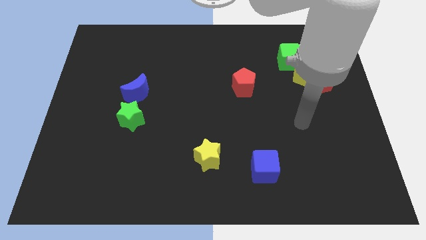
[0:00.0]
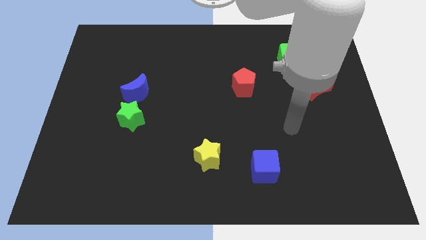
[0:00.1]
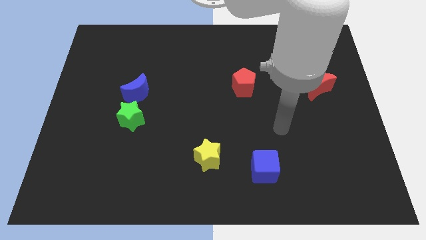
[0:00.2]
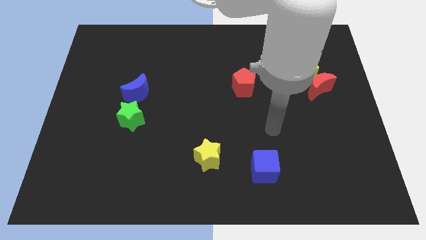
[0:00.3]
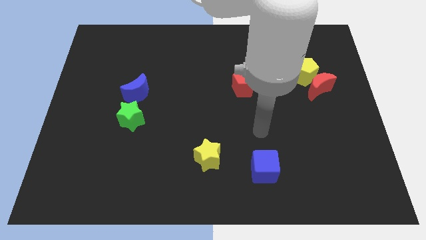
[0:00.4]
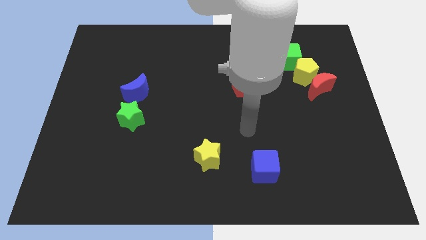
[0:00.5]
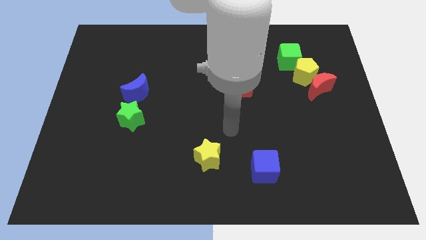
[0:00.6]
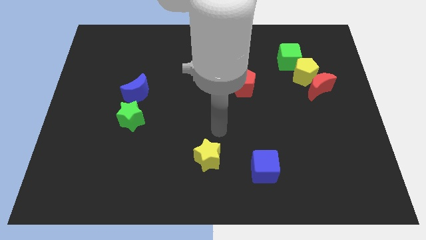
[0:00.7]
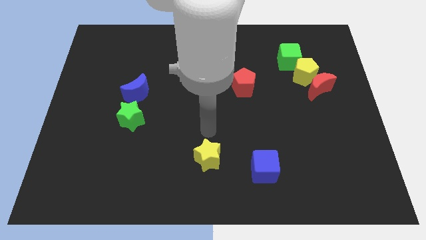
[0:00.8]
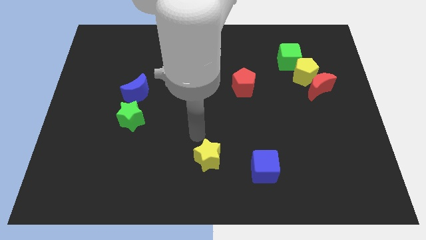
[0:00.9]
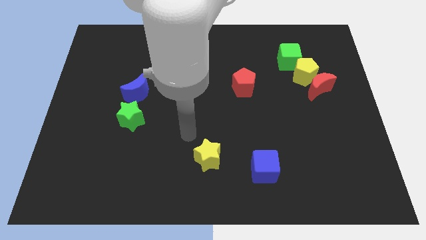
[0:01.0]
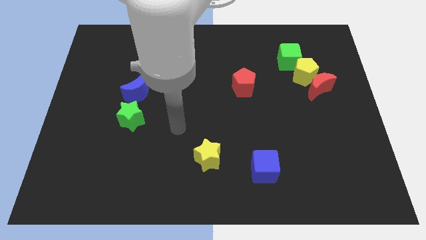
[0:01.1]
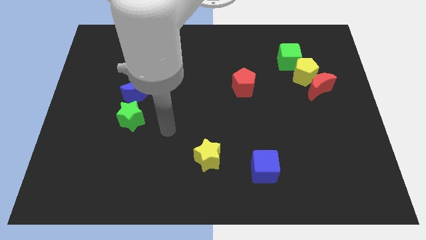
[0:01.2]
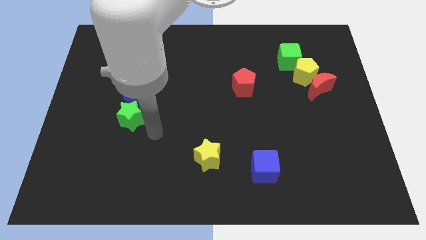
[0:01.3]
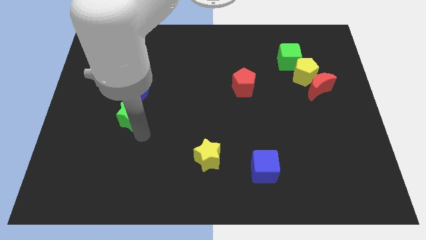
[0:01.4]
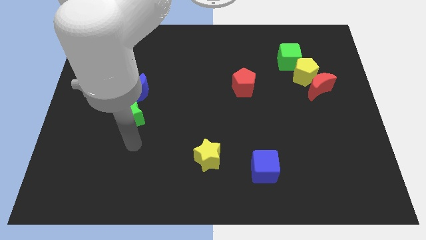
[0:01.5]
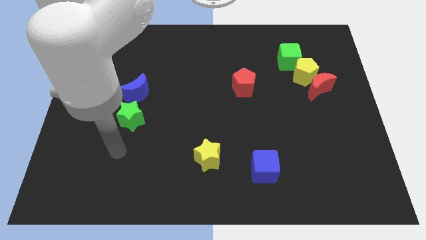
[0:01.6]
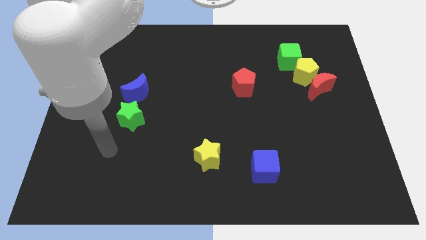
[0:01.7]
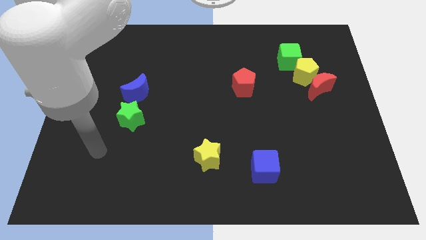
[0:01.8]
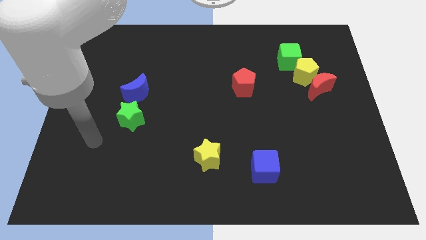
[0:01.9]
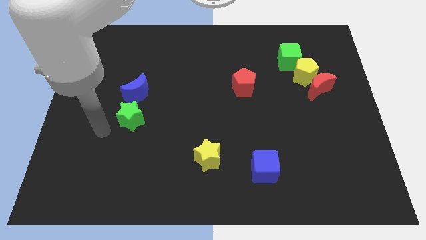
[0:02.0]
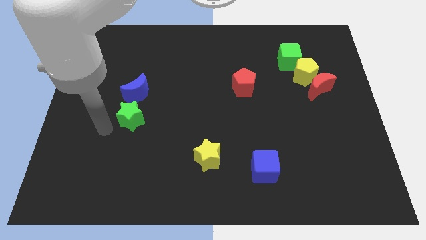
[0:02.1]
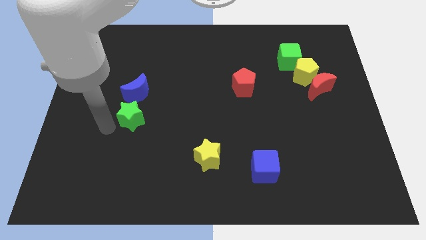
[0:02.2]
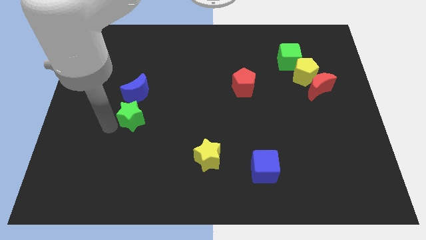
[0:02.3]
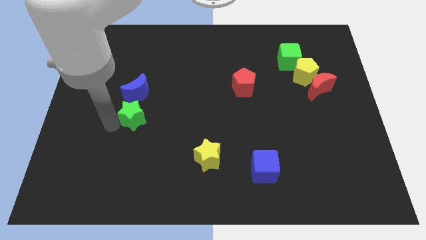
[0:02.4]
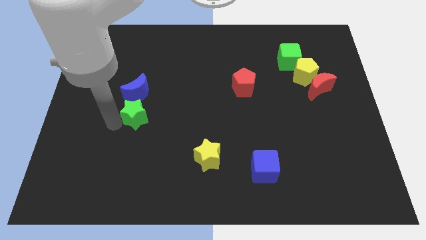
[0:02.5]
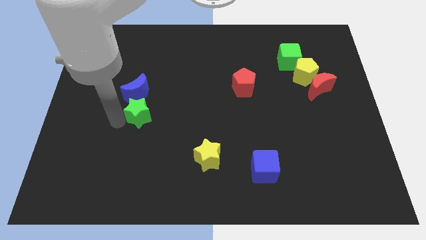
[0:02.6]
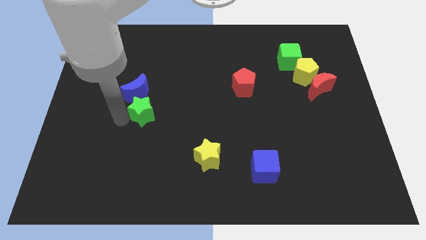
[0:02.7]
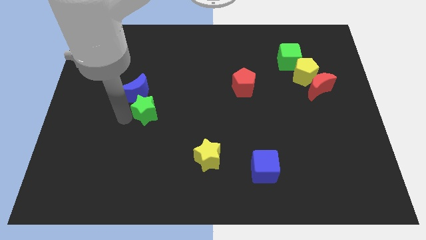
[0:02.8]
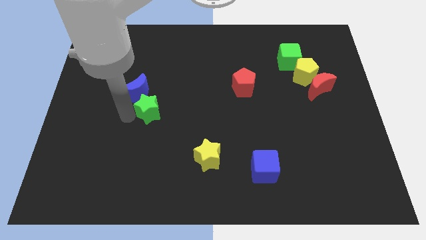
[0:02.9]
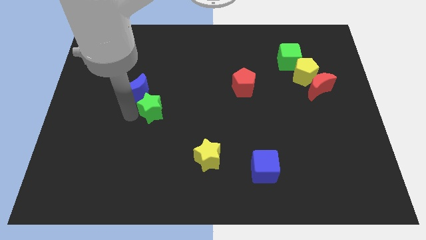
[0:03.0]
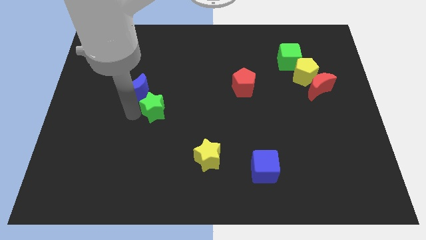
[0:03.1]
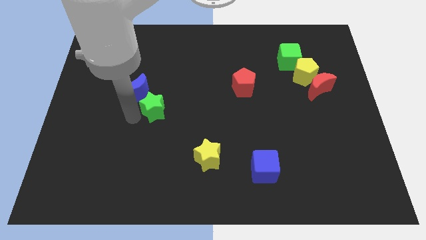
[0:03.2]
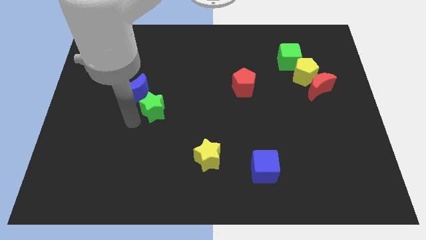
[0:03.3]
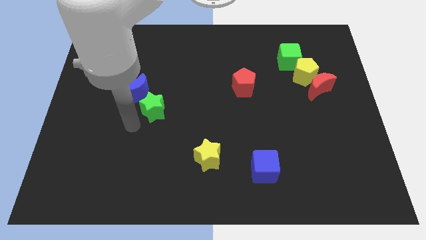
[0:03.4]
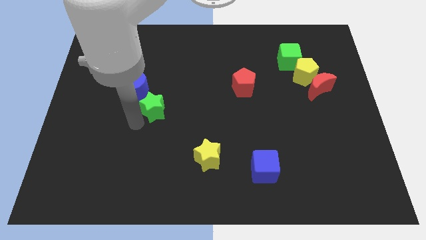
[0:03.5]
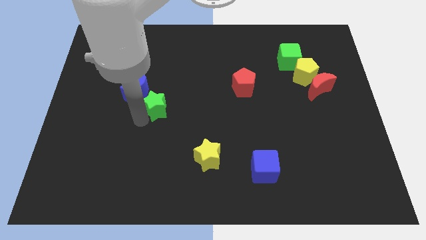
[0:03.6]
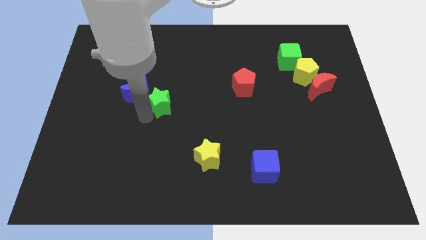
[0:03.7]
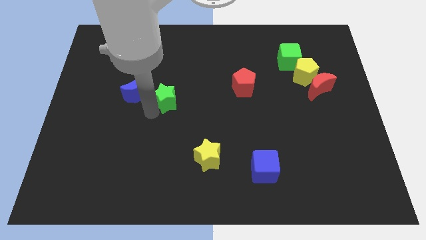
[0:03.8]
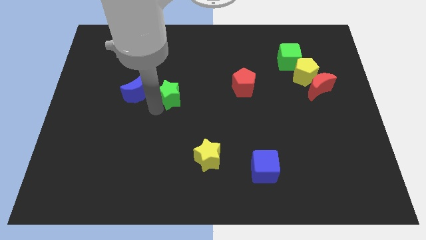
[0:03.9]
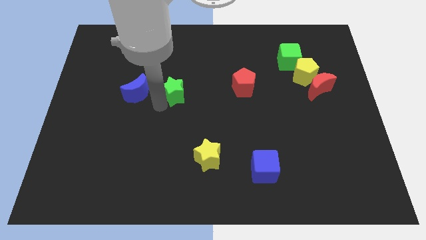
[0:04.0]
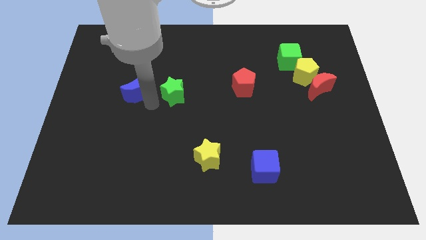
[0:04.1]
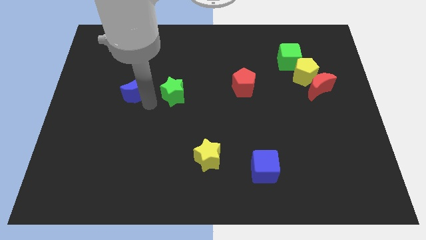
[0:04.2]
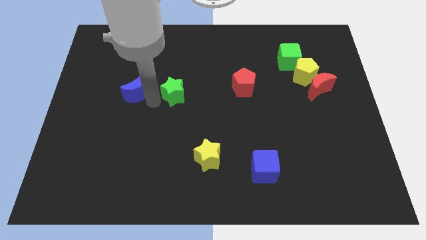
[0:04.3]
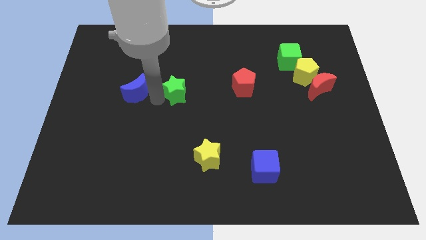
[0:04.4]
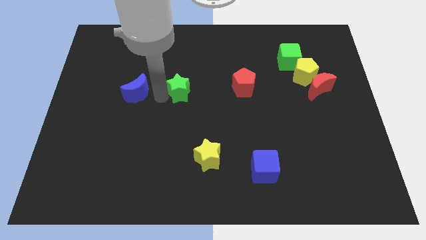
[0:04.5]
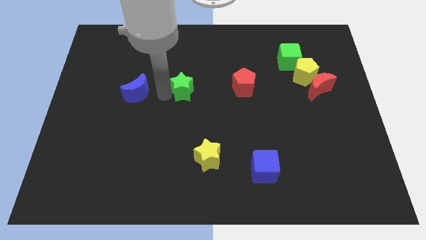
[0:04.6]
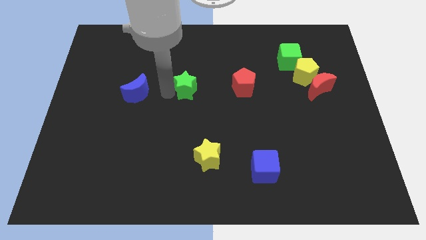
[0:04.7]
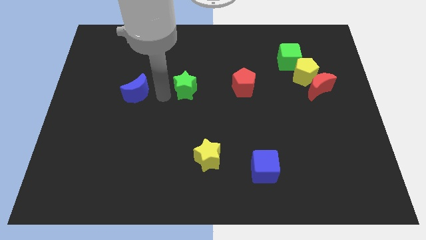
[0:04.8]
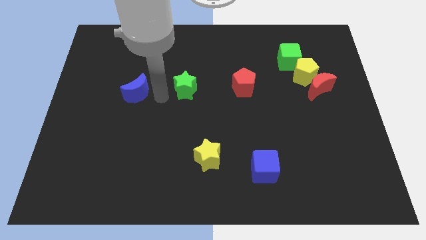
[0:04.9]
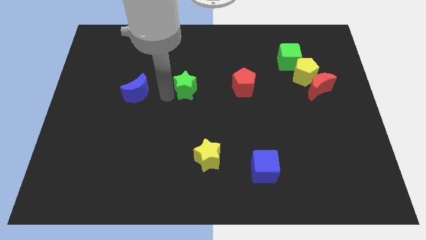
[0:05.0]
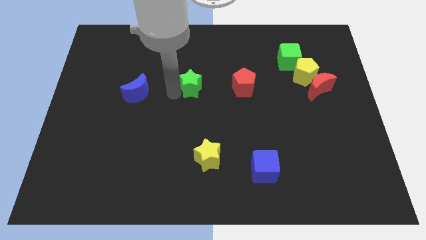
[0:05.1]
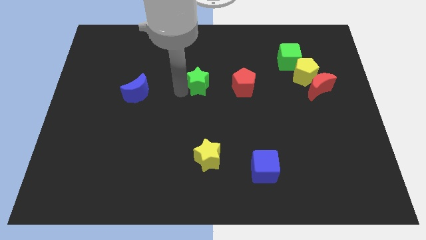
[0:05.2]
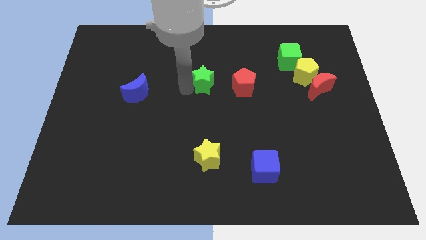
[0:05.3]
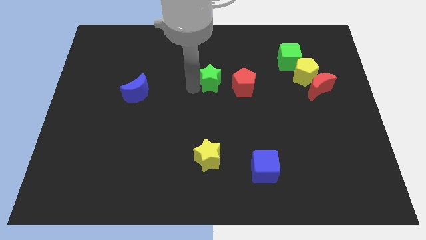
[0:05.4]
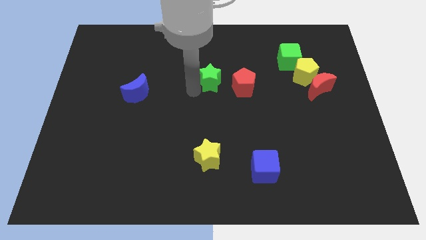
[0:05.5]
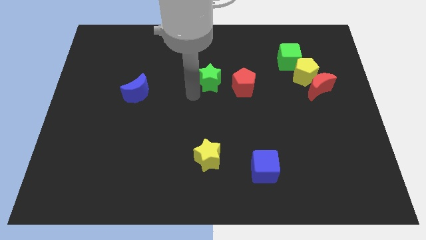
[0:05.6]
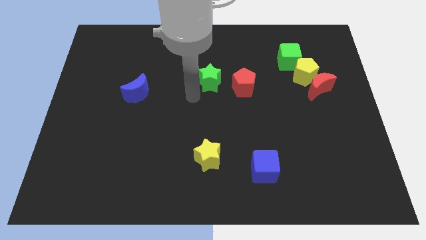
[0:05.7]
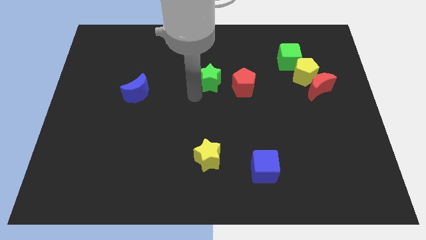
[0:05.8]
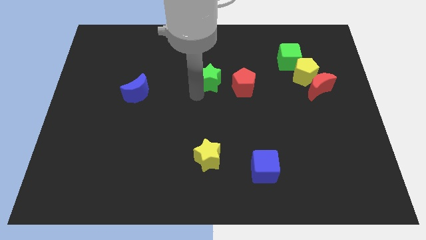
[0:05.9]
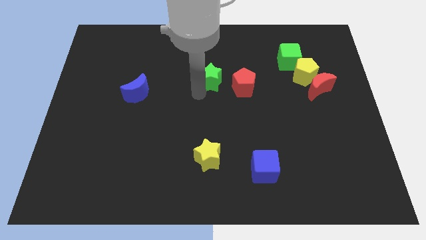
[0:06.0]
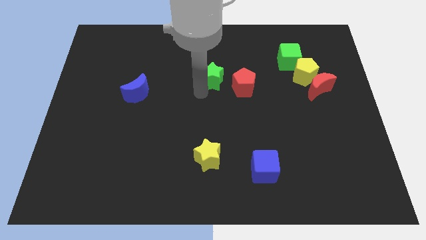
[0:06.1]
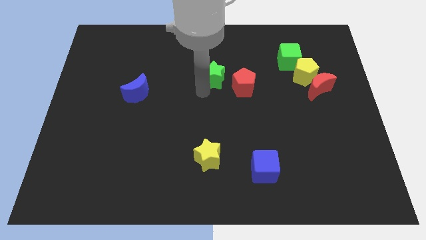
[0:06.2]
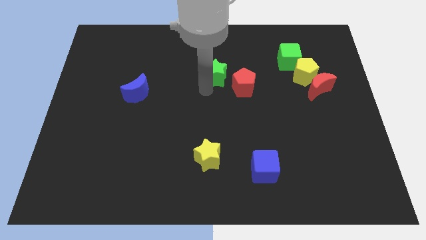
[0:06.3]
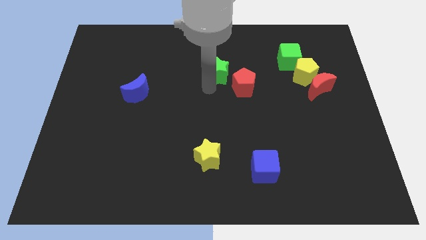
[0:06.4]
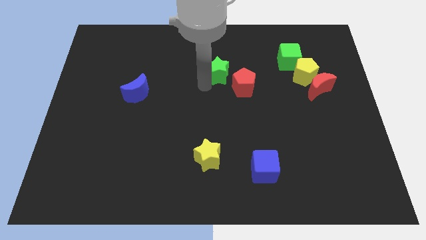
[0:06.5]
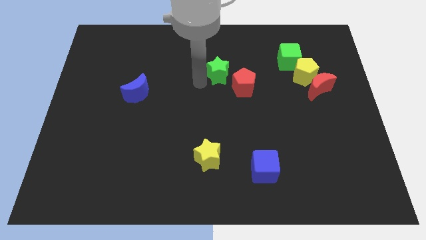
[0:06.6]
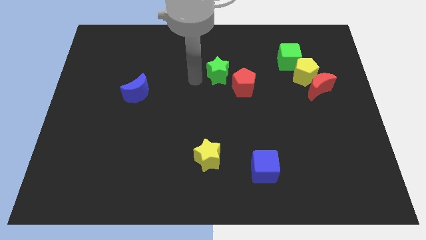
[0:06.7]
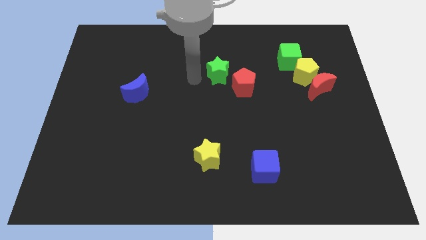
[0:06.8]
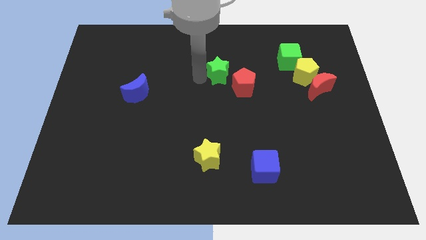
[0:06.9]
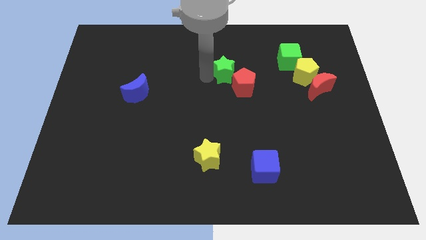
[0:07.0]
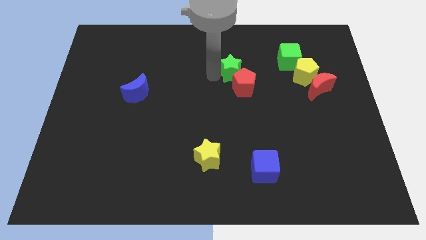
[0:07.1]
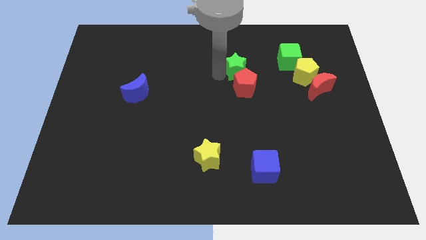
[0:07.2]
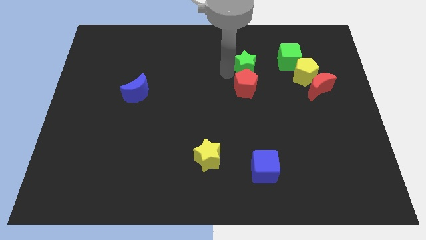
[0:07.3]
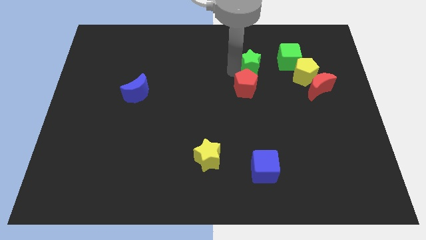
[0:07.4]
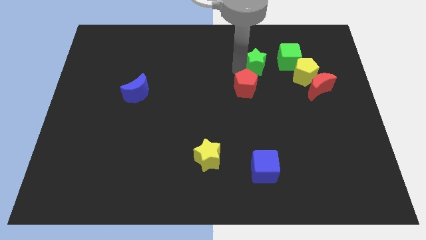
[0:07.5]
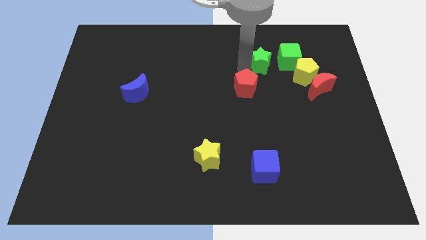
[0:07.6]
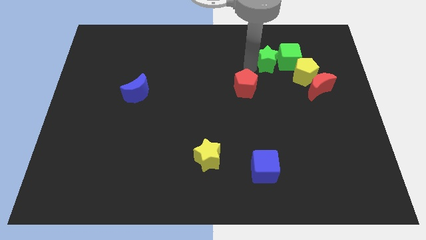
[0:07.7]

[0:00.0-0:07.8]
push the green star next to the green cube
